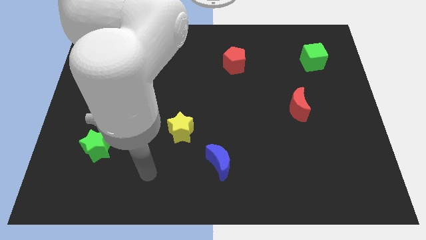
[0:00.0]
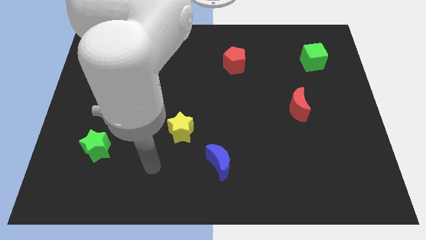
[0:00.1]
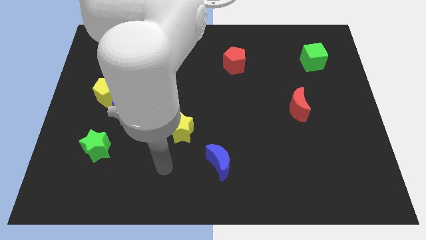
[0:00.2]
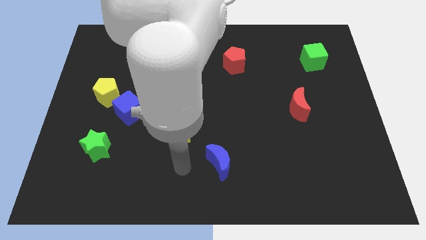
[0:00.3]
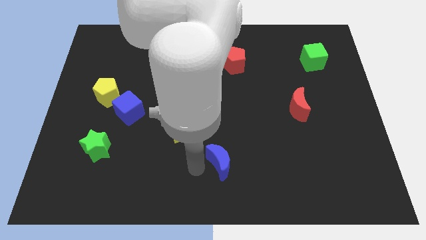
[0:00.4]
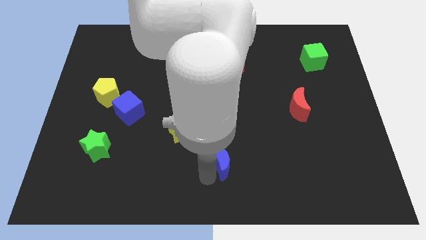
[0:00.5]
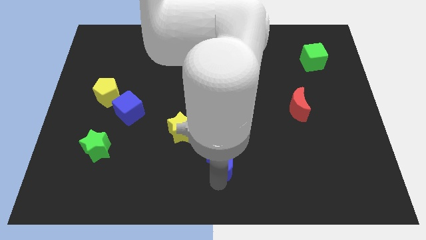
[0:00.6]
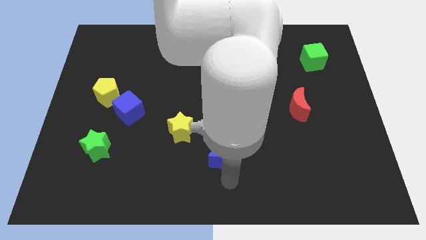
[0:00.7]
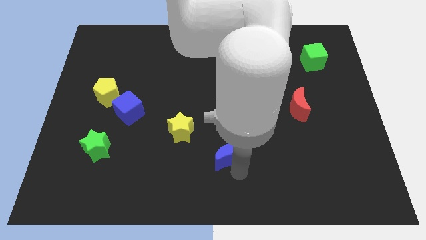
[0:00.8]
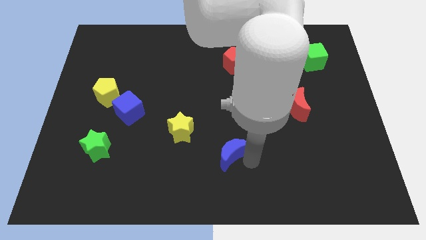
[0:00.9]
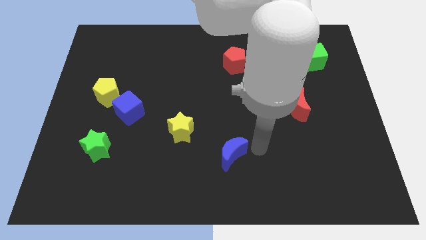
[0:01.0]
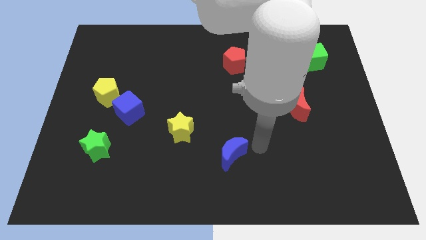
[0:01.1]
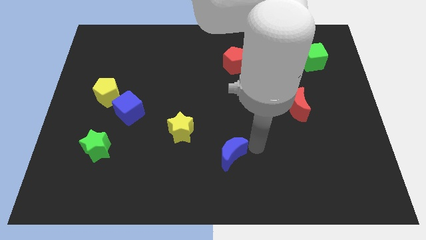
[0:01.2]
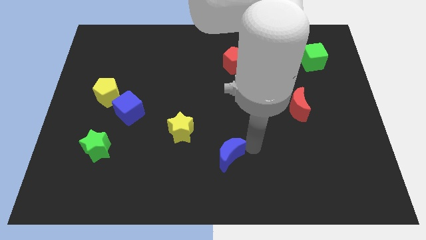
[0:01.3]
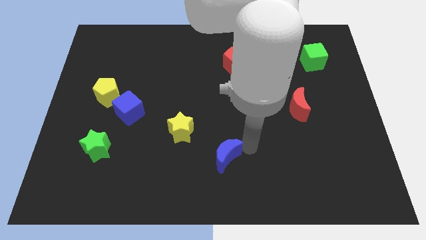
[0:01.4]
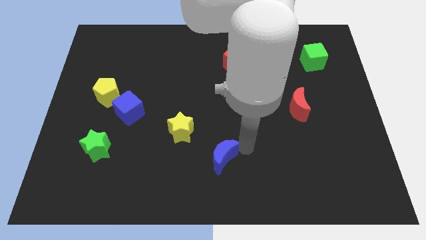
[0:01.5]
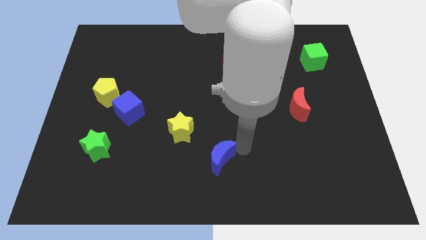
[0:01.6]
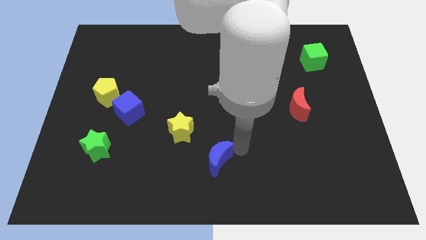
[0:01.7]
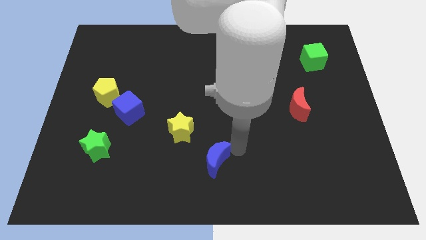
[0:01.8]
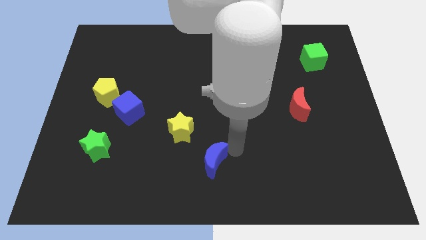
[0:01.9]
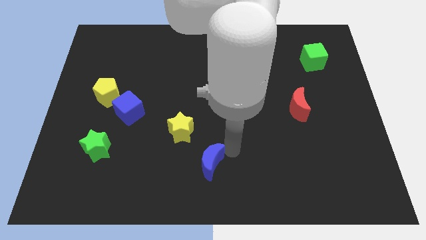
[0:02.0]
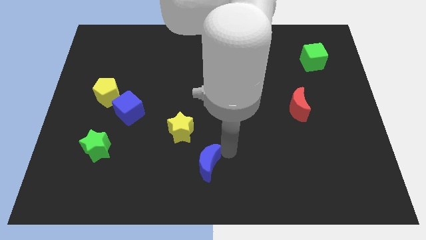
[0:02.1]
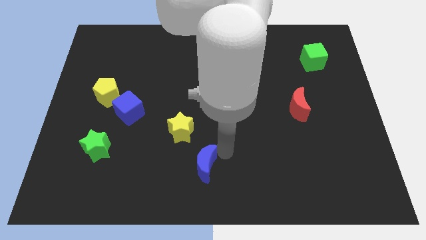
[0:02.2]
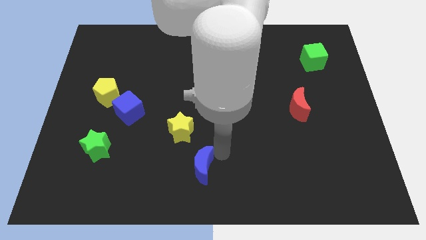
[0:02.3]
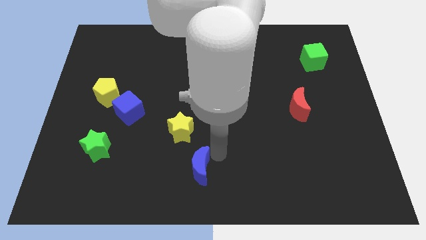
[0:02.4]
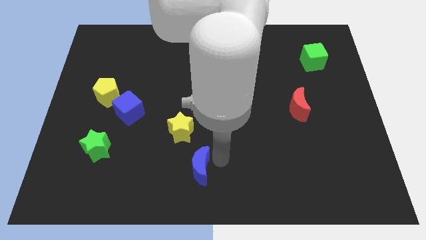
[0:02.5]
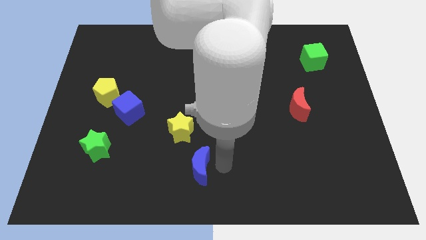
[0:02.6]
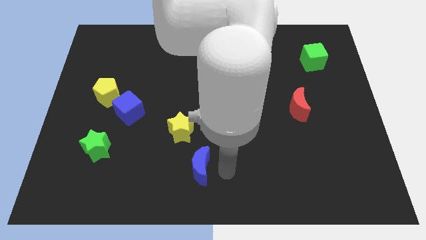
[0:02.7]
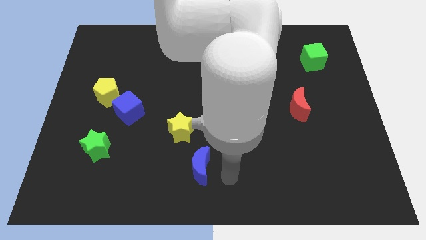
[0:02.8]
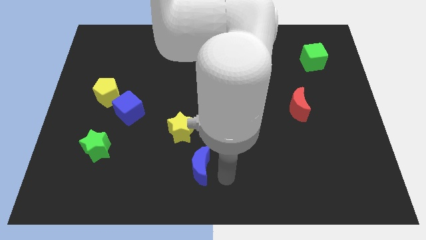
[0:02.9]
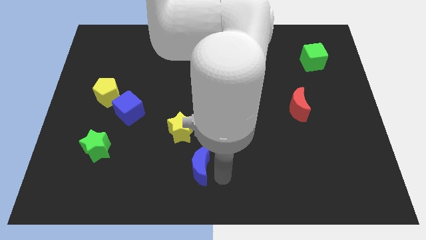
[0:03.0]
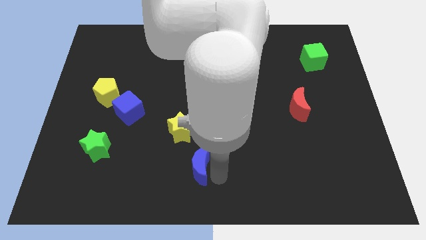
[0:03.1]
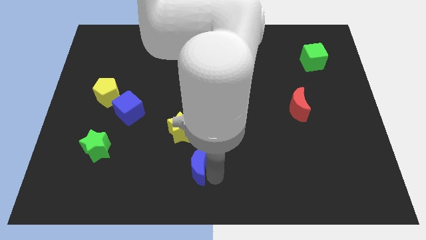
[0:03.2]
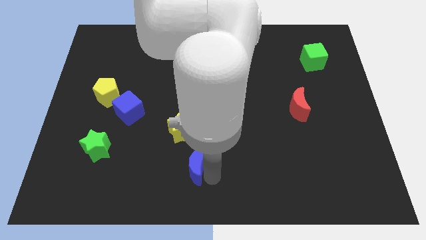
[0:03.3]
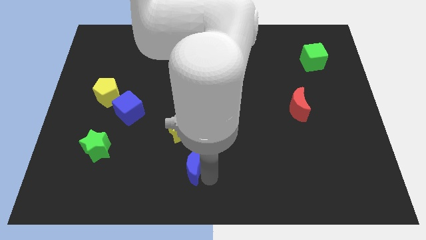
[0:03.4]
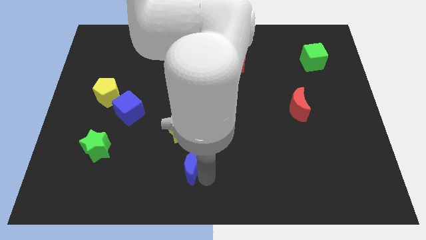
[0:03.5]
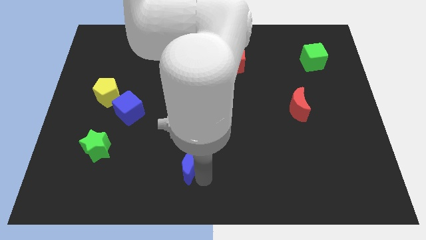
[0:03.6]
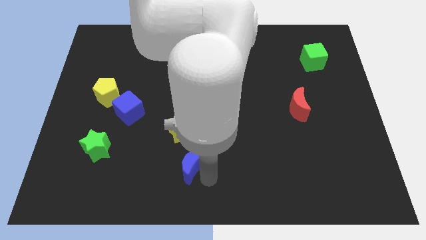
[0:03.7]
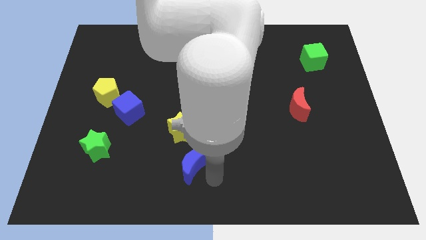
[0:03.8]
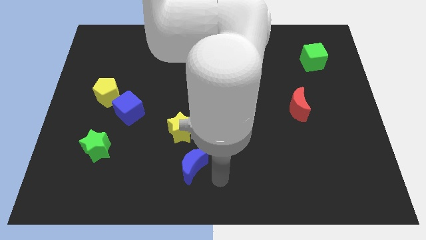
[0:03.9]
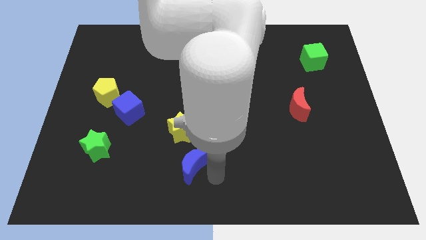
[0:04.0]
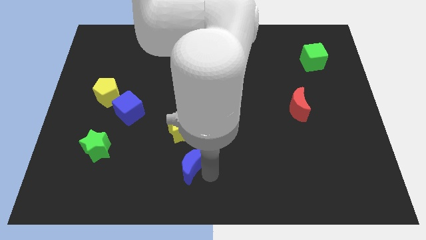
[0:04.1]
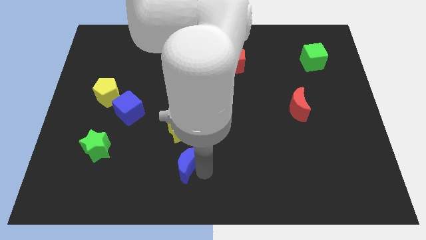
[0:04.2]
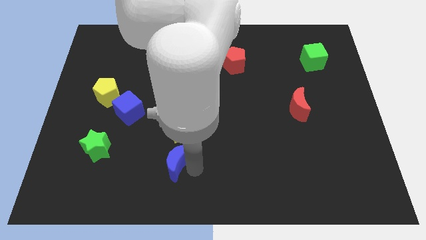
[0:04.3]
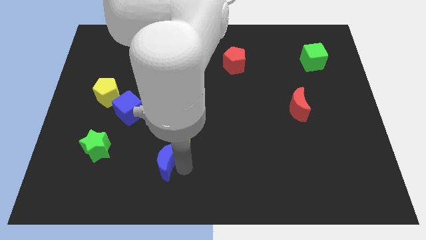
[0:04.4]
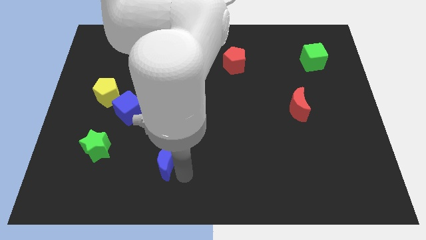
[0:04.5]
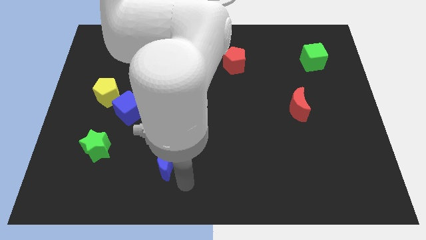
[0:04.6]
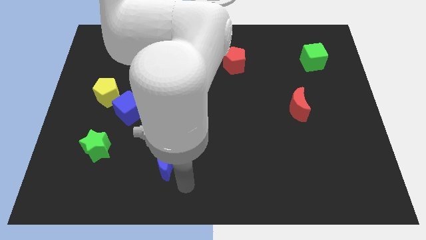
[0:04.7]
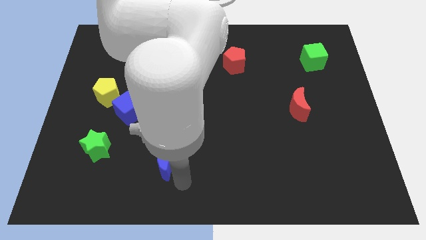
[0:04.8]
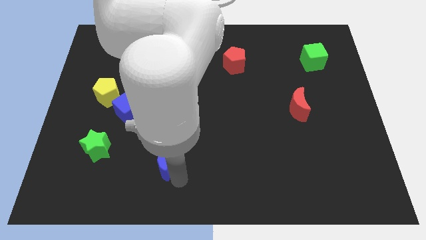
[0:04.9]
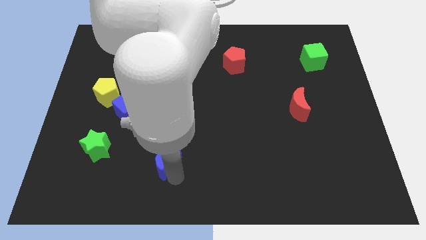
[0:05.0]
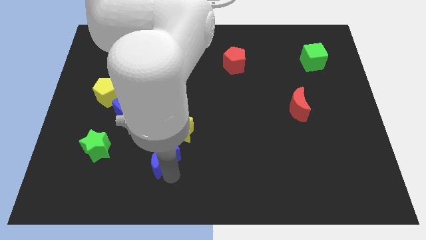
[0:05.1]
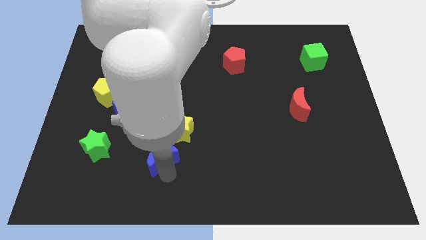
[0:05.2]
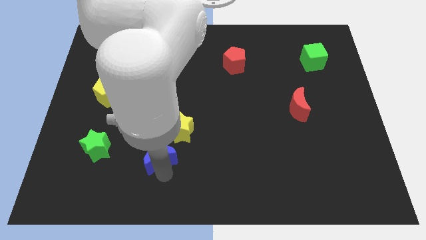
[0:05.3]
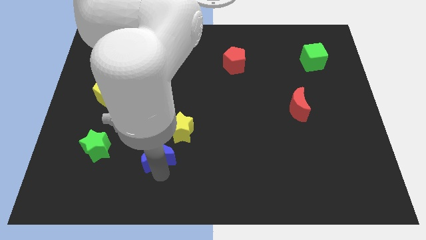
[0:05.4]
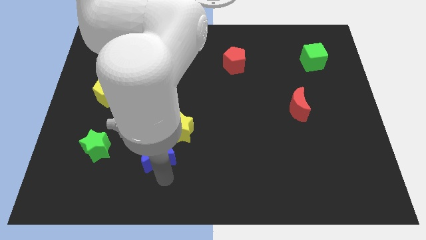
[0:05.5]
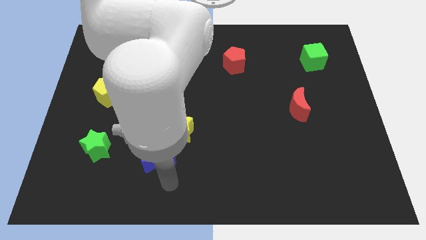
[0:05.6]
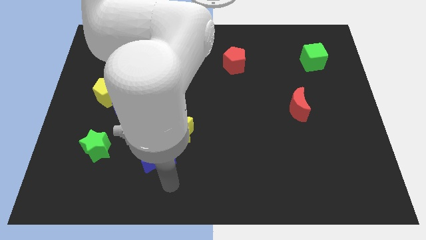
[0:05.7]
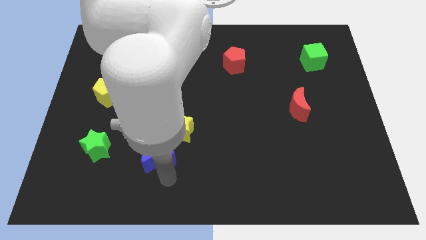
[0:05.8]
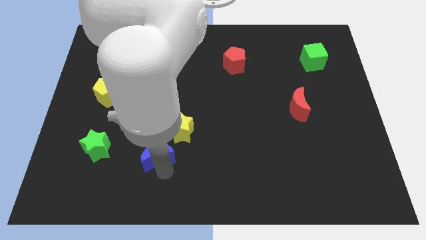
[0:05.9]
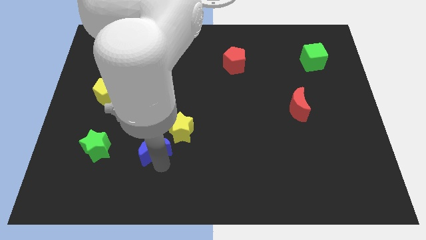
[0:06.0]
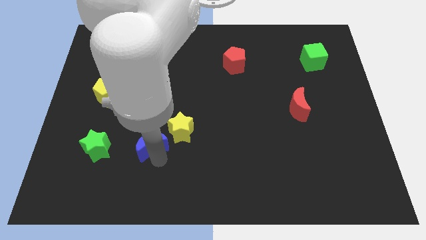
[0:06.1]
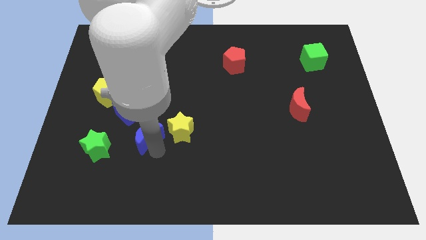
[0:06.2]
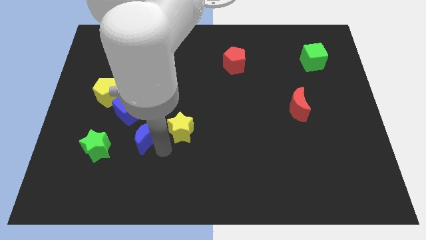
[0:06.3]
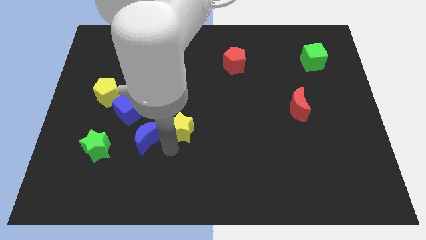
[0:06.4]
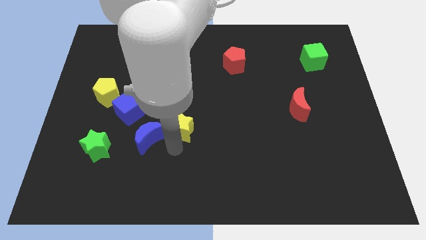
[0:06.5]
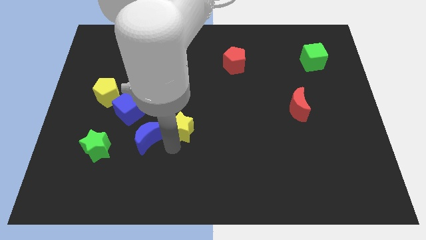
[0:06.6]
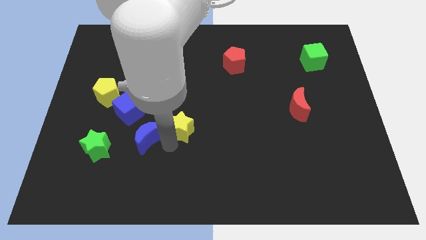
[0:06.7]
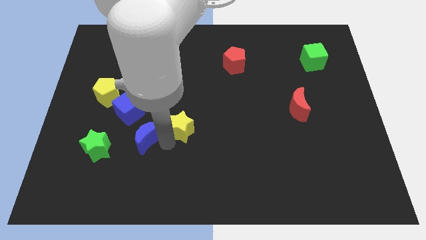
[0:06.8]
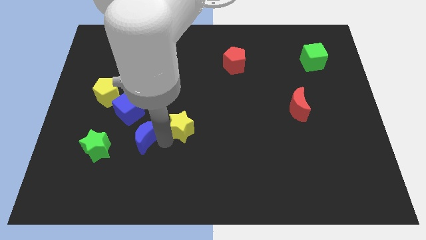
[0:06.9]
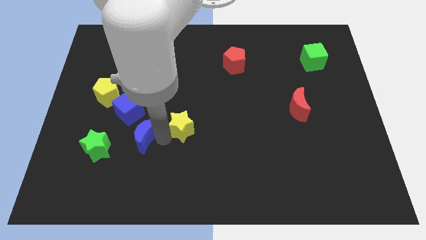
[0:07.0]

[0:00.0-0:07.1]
put the blue moon to the top right side of the green star
